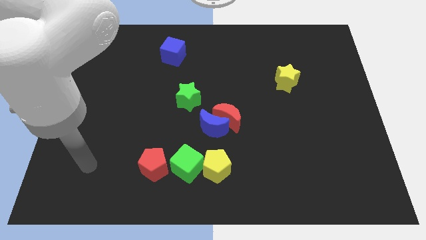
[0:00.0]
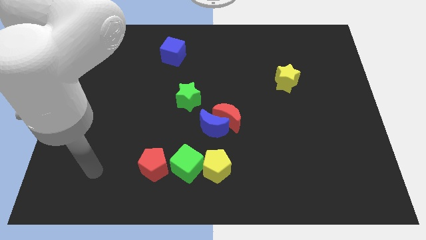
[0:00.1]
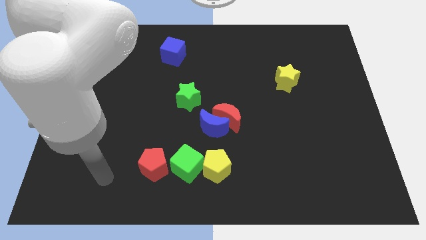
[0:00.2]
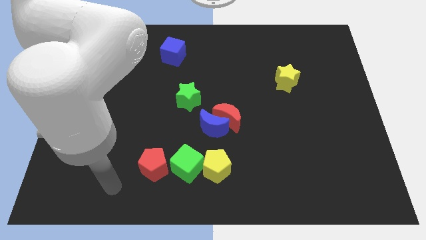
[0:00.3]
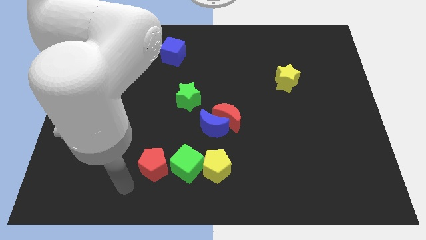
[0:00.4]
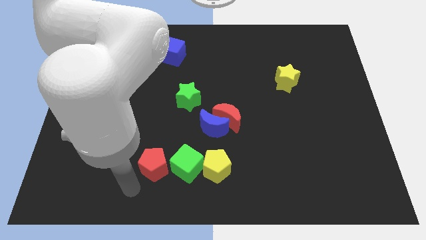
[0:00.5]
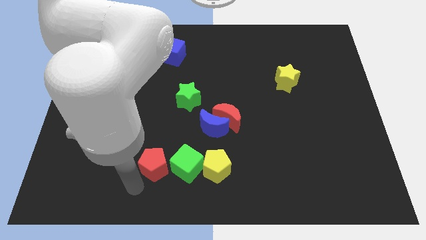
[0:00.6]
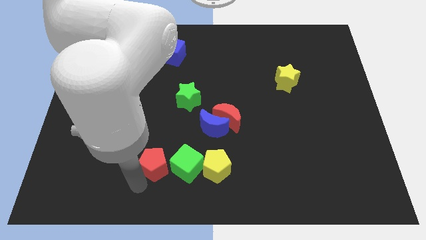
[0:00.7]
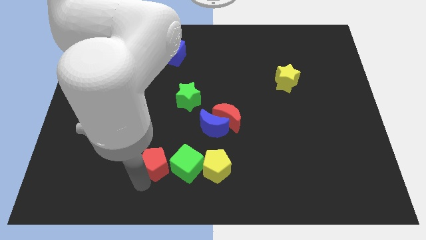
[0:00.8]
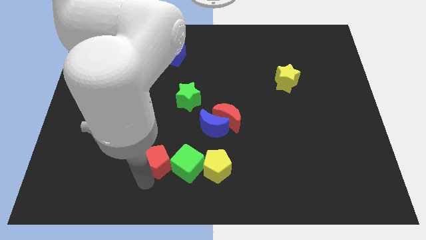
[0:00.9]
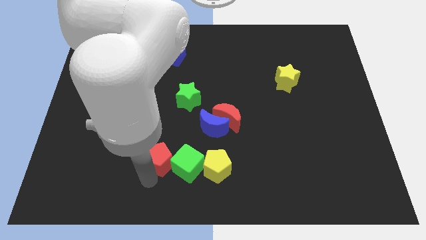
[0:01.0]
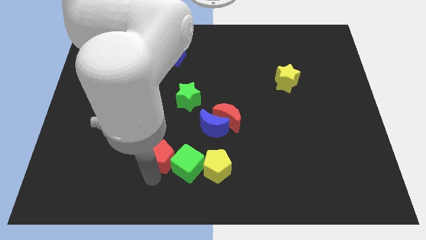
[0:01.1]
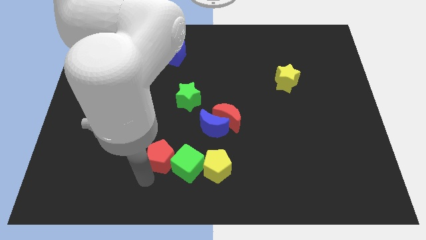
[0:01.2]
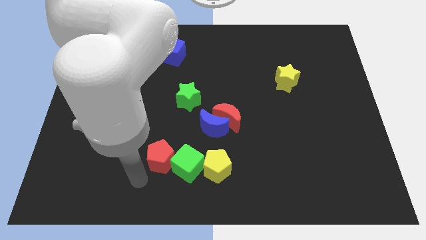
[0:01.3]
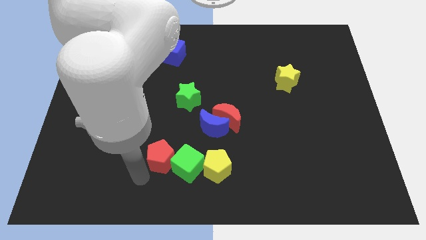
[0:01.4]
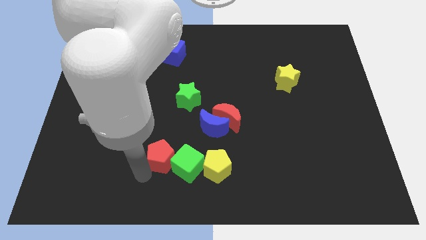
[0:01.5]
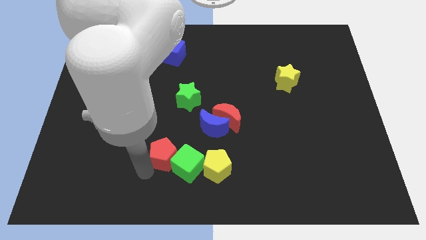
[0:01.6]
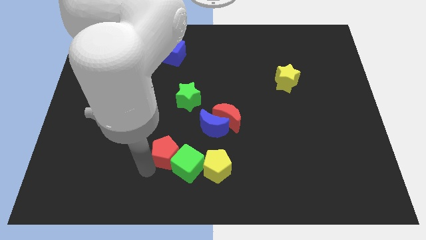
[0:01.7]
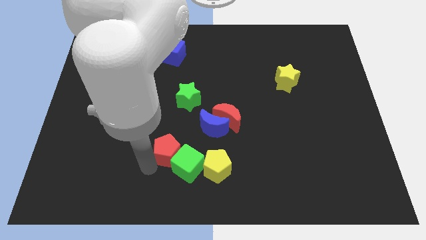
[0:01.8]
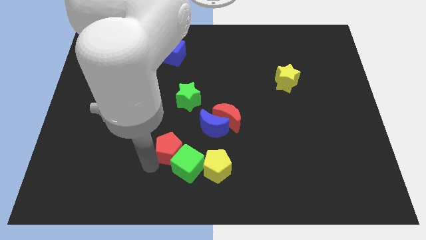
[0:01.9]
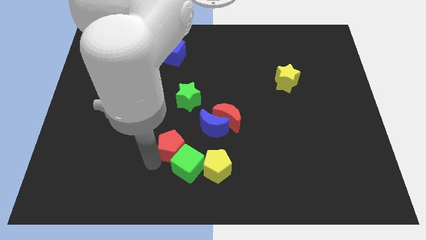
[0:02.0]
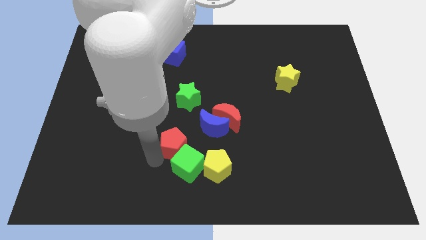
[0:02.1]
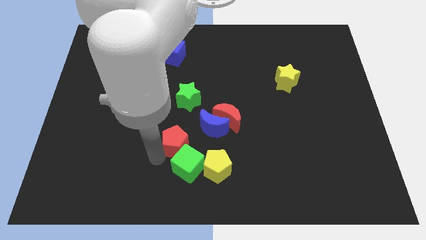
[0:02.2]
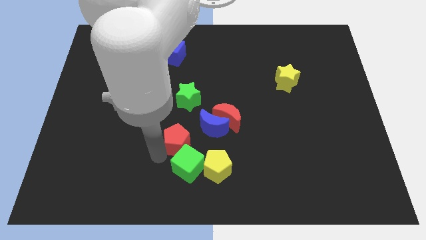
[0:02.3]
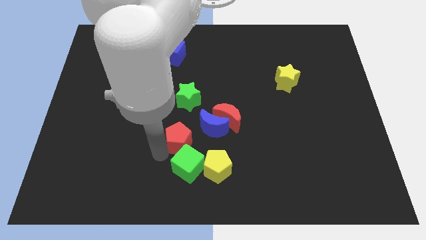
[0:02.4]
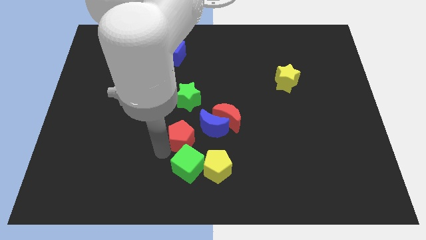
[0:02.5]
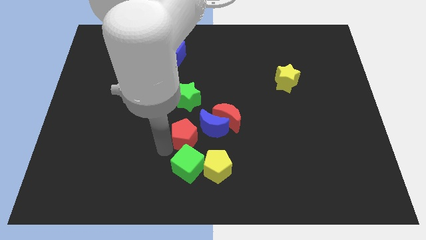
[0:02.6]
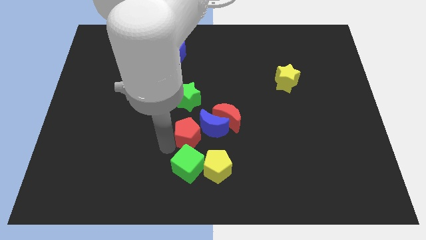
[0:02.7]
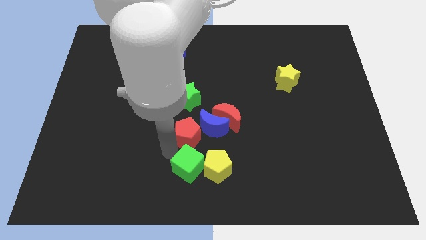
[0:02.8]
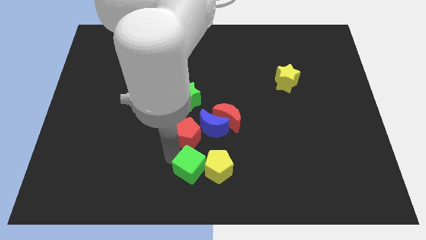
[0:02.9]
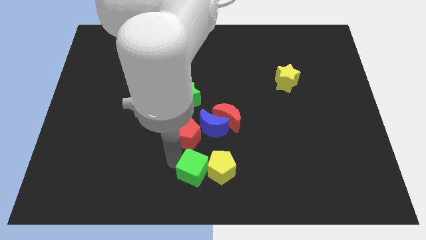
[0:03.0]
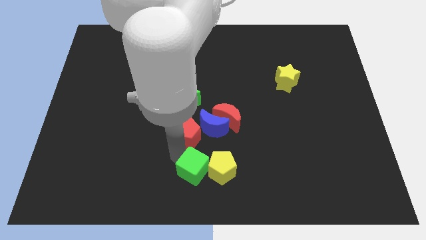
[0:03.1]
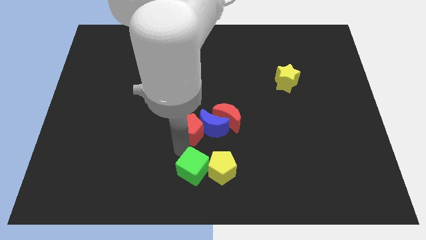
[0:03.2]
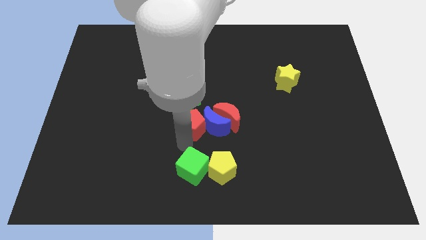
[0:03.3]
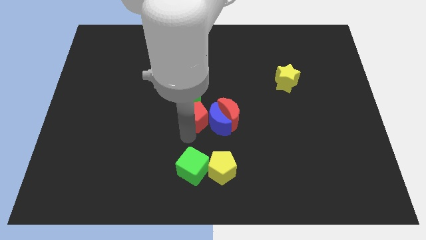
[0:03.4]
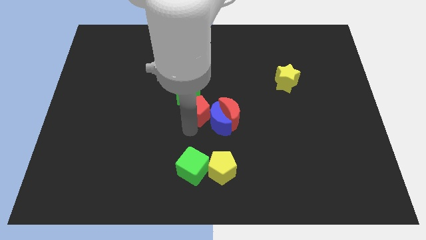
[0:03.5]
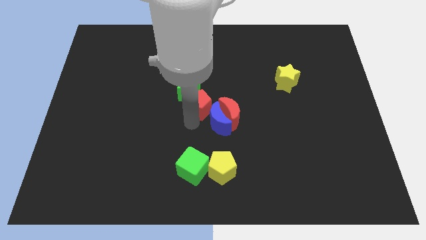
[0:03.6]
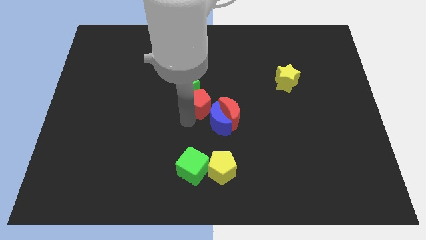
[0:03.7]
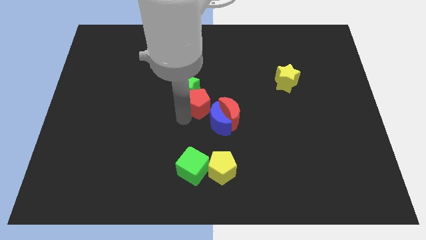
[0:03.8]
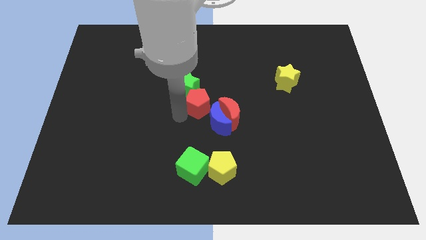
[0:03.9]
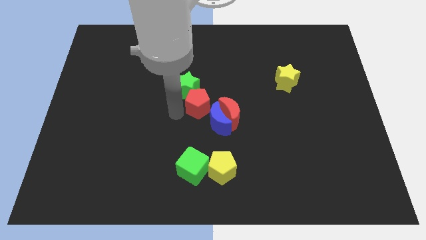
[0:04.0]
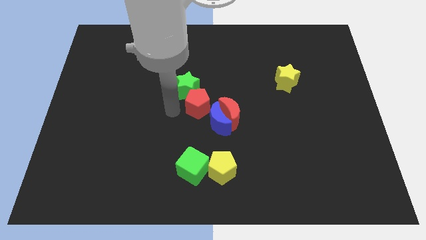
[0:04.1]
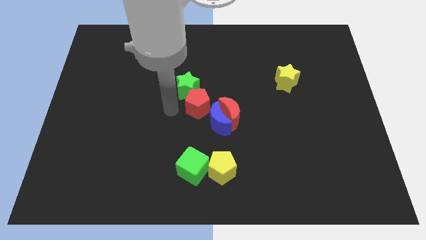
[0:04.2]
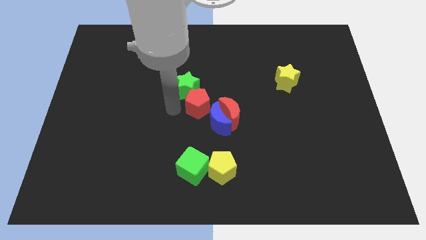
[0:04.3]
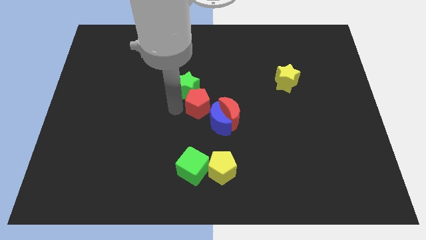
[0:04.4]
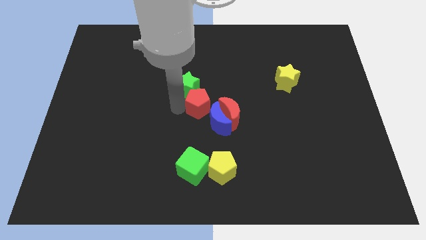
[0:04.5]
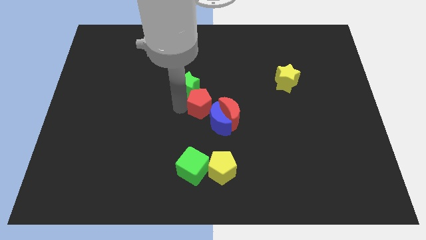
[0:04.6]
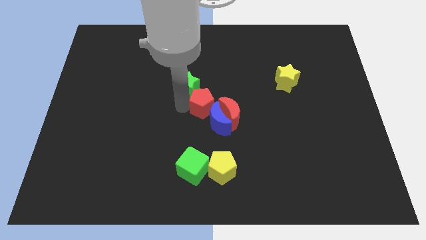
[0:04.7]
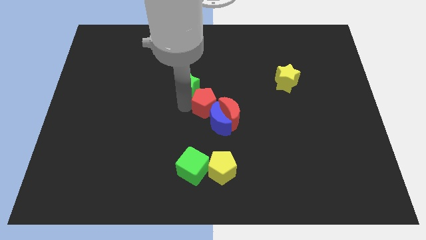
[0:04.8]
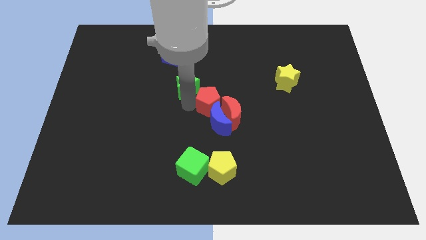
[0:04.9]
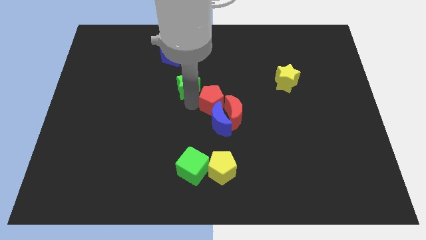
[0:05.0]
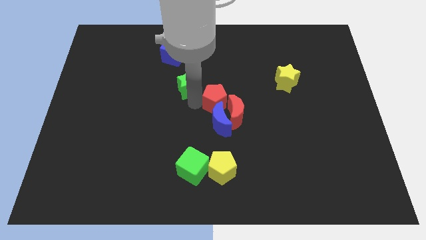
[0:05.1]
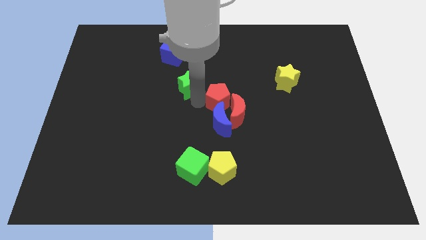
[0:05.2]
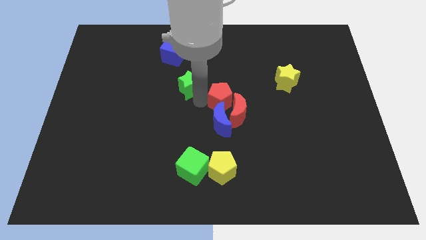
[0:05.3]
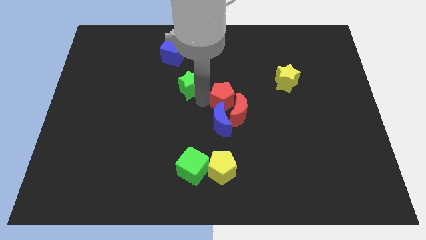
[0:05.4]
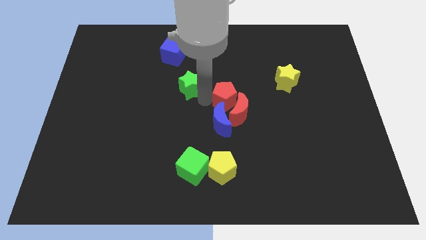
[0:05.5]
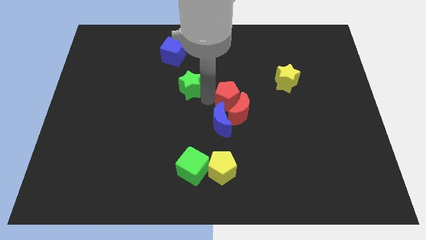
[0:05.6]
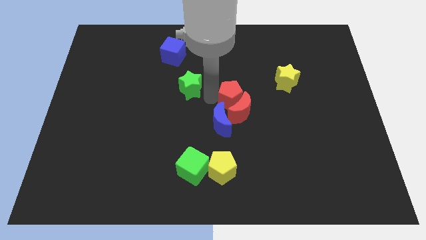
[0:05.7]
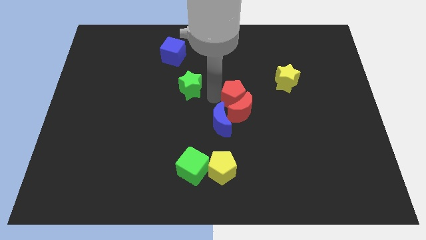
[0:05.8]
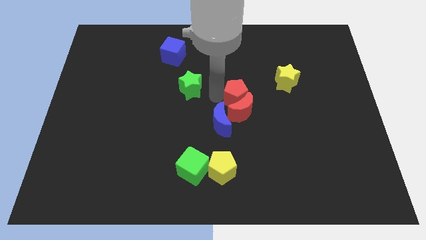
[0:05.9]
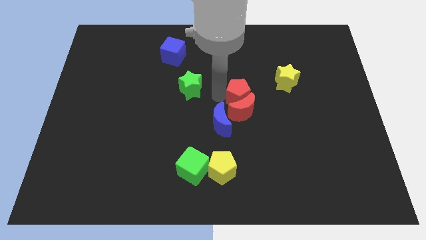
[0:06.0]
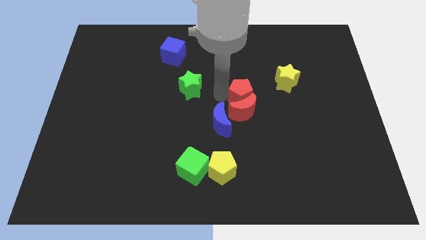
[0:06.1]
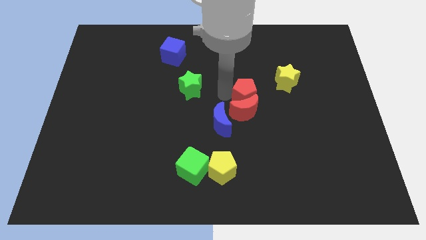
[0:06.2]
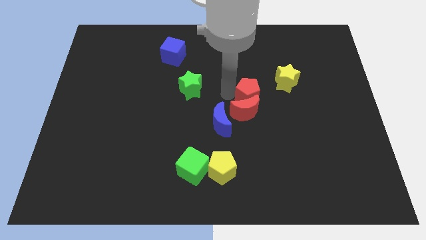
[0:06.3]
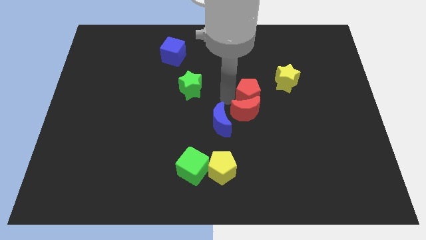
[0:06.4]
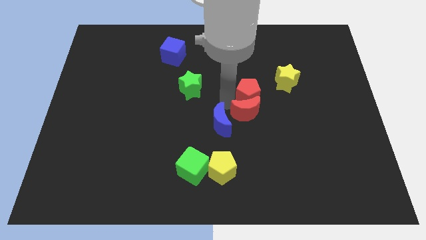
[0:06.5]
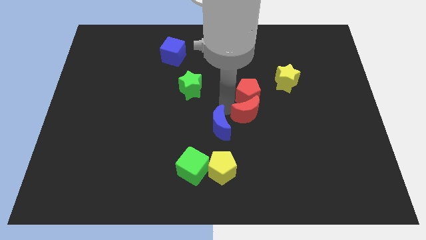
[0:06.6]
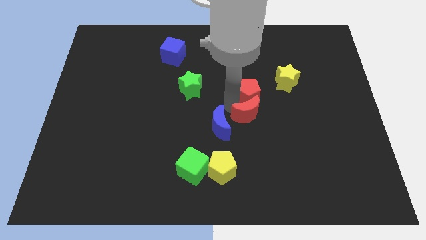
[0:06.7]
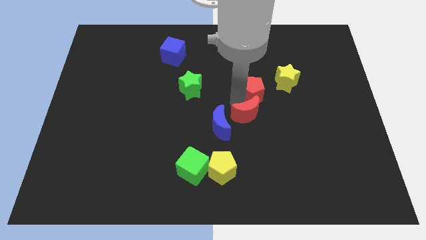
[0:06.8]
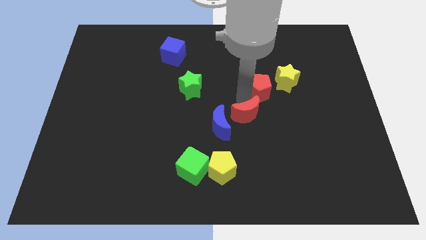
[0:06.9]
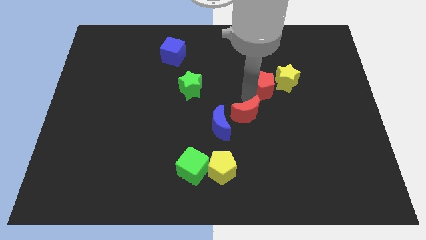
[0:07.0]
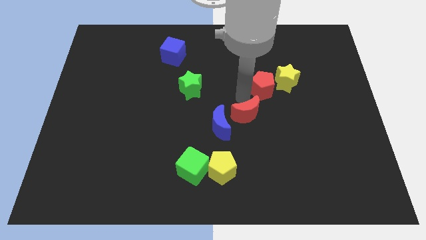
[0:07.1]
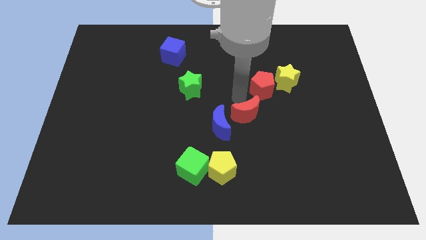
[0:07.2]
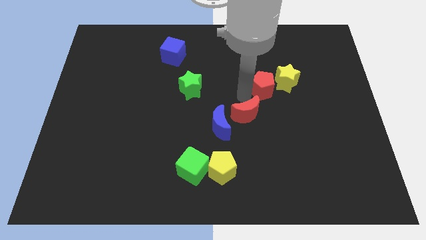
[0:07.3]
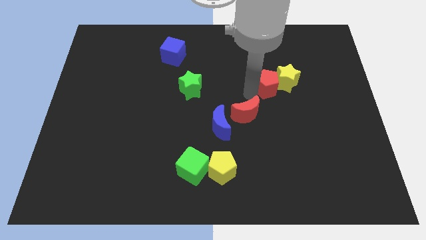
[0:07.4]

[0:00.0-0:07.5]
slide the red pentagon towards the yellow star

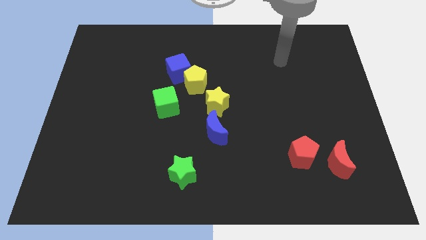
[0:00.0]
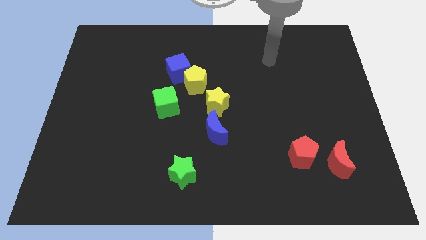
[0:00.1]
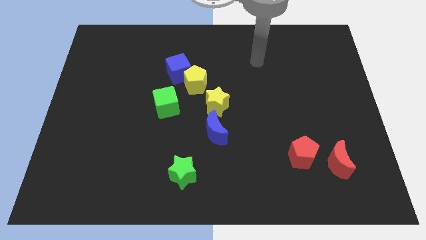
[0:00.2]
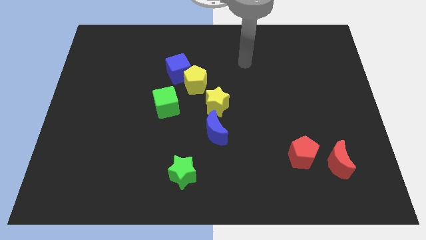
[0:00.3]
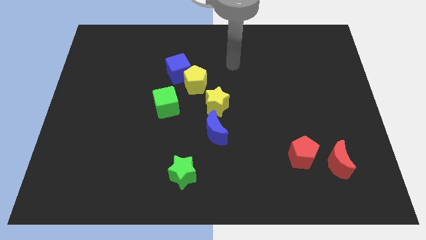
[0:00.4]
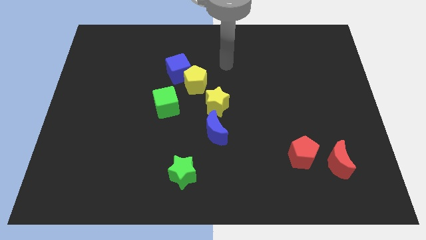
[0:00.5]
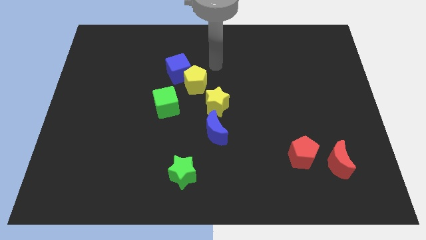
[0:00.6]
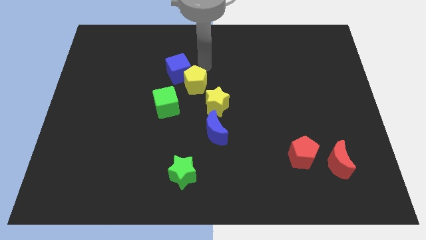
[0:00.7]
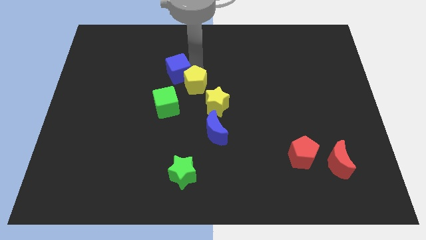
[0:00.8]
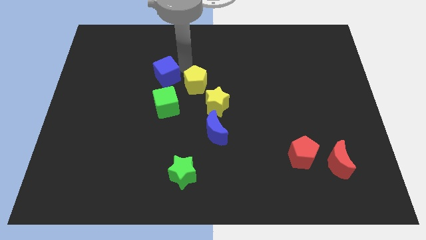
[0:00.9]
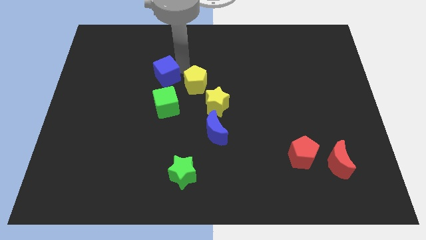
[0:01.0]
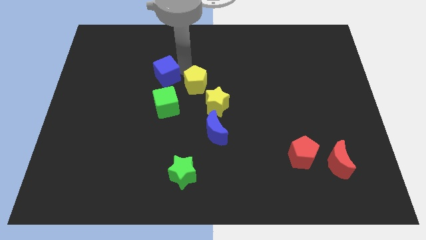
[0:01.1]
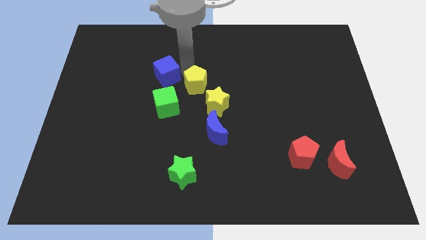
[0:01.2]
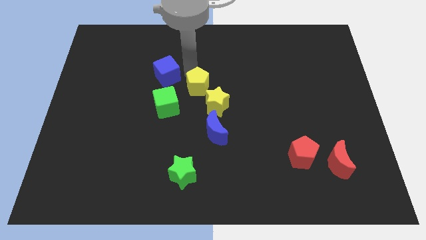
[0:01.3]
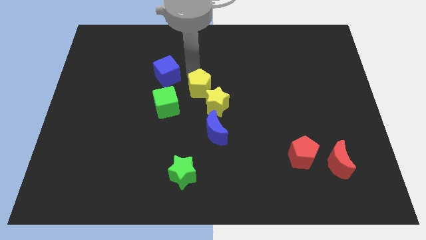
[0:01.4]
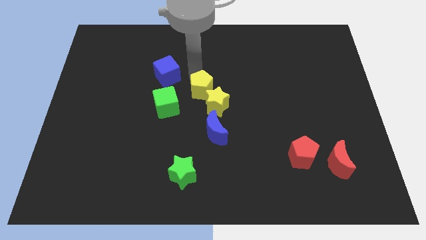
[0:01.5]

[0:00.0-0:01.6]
put the yellow pentagon close to the yellow star
